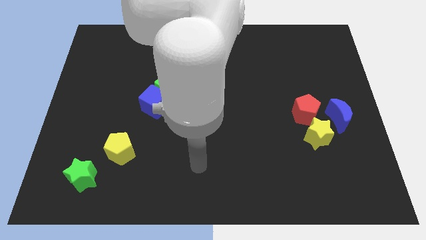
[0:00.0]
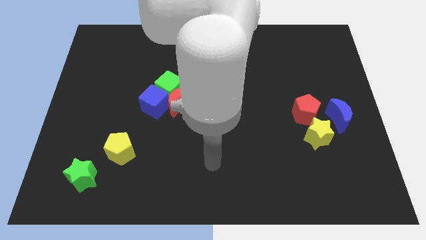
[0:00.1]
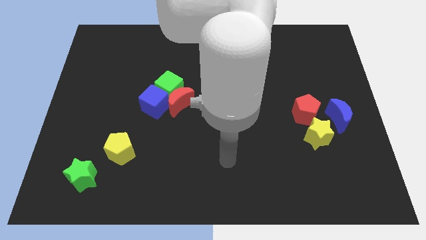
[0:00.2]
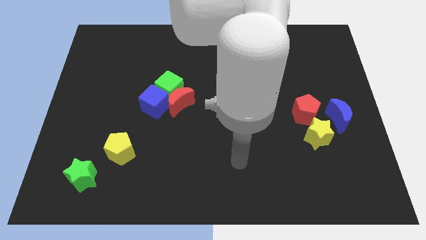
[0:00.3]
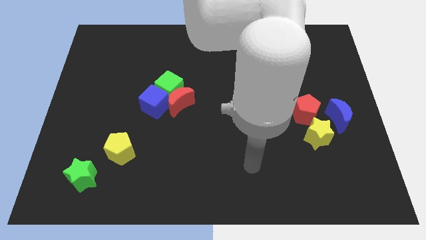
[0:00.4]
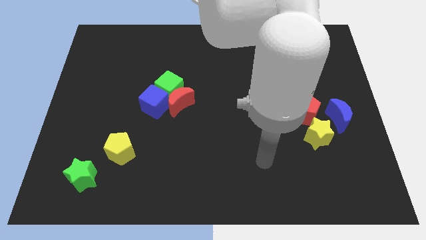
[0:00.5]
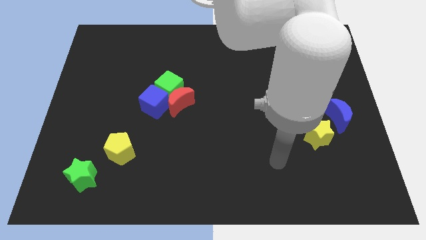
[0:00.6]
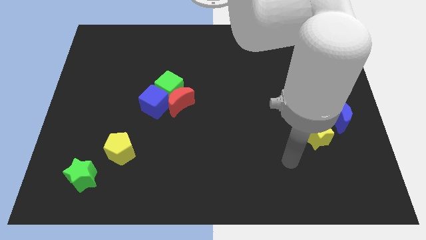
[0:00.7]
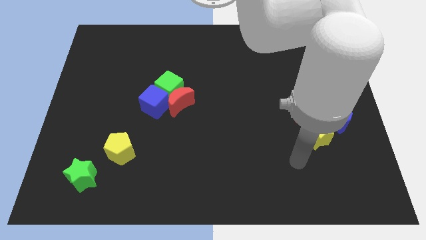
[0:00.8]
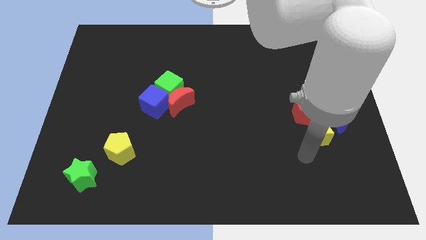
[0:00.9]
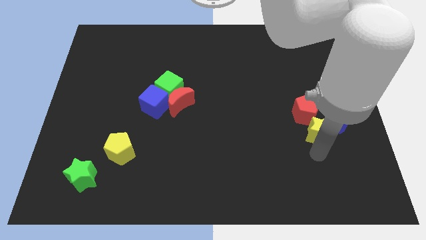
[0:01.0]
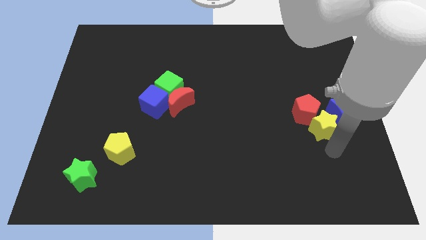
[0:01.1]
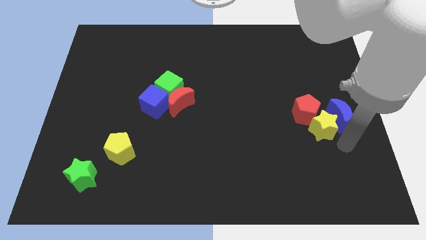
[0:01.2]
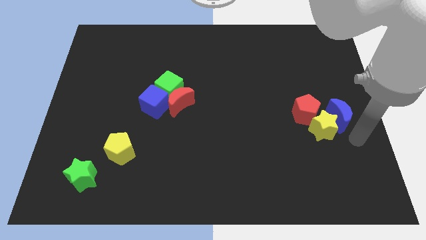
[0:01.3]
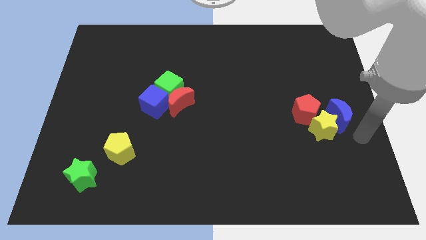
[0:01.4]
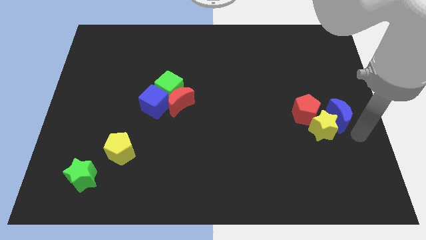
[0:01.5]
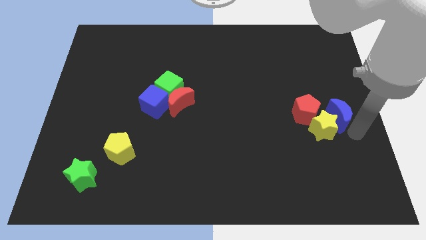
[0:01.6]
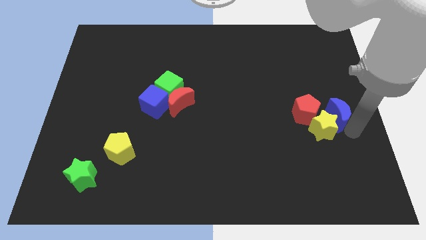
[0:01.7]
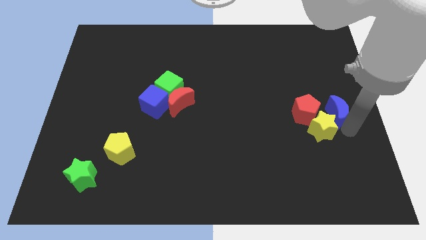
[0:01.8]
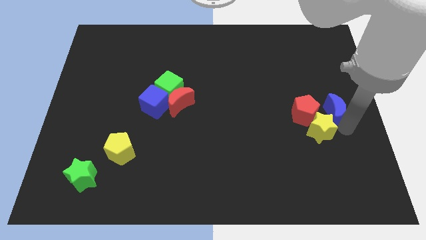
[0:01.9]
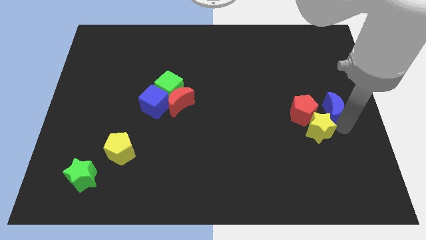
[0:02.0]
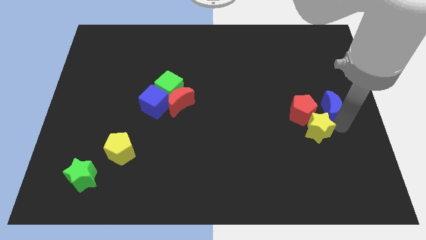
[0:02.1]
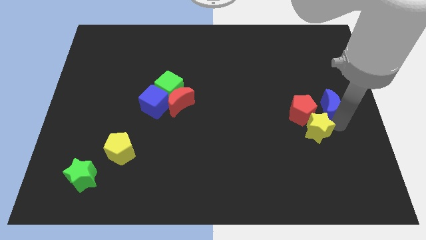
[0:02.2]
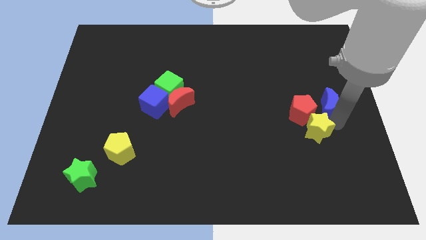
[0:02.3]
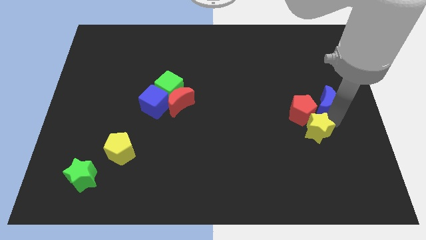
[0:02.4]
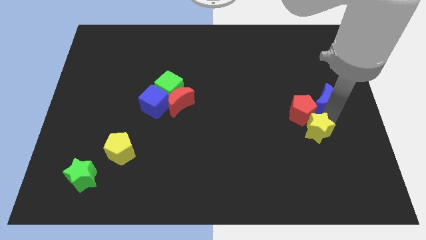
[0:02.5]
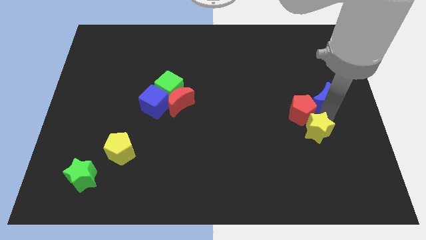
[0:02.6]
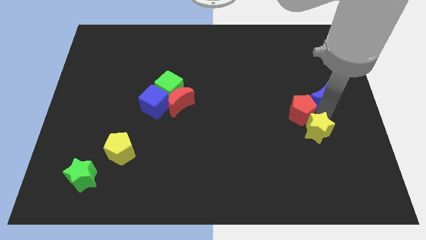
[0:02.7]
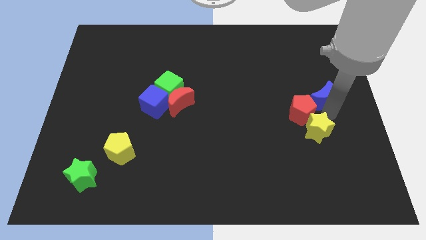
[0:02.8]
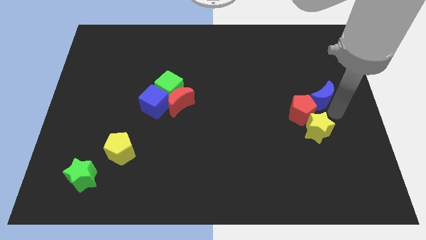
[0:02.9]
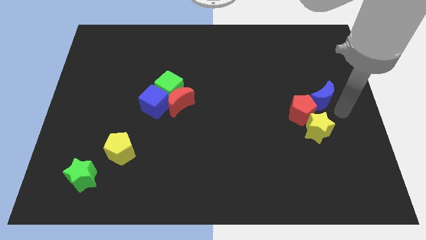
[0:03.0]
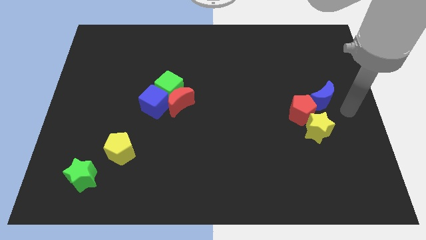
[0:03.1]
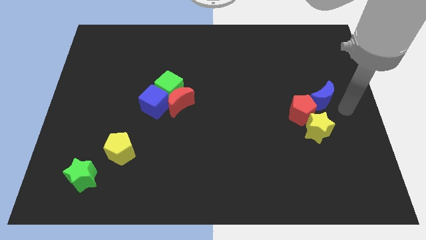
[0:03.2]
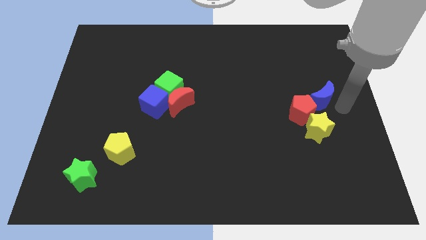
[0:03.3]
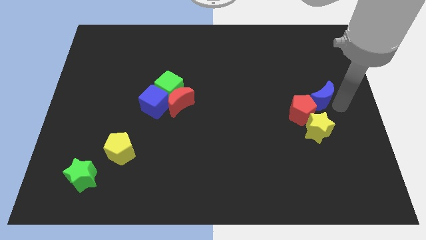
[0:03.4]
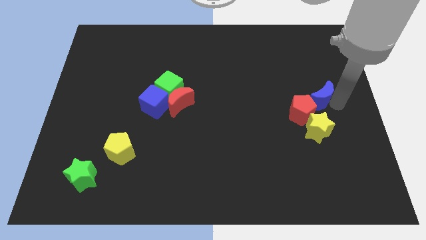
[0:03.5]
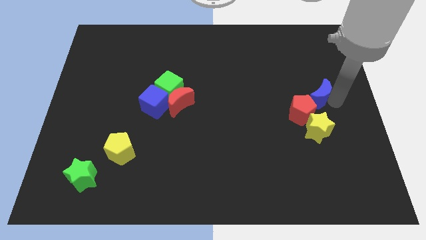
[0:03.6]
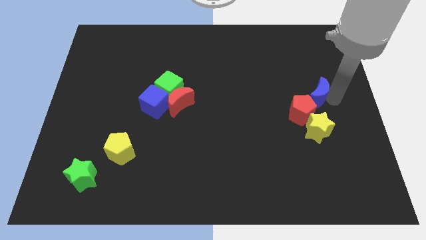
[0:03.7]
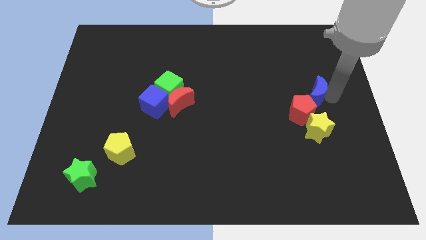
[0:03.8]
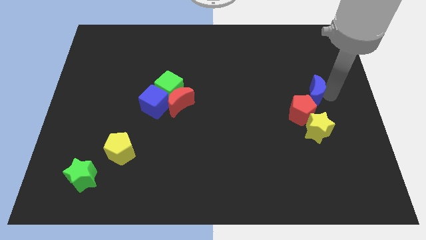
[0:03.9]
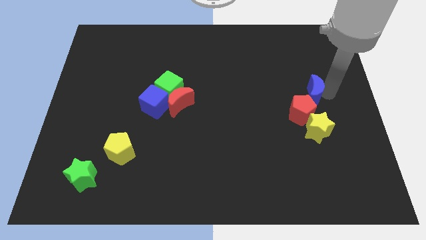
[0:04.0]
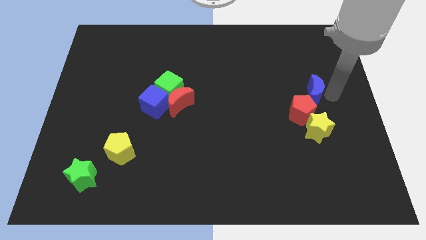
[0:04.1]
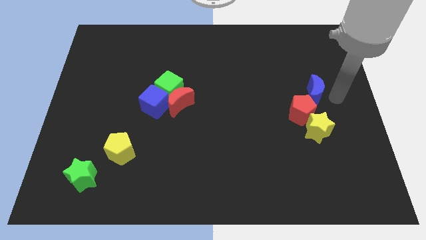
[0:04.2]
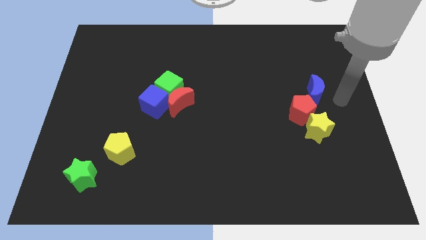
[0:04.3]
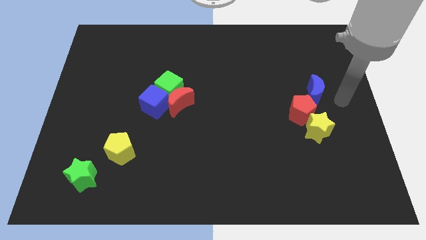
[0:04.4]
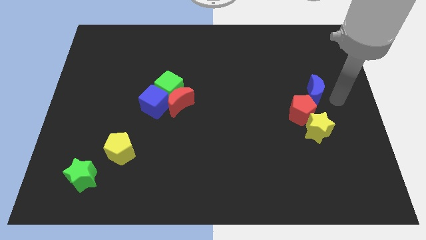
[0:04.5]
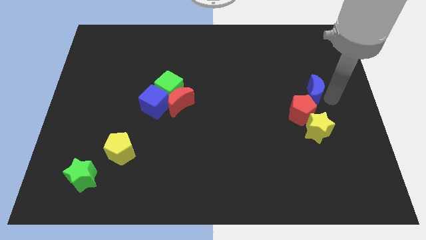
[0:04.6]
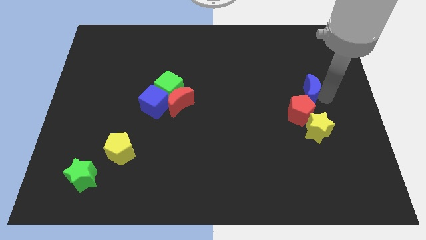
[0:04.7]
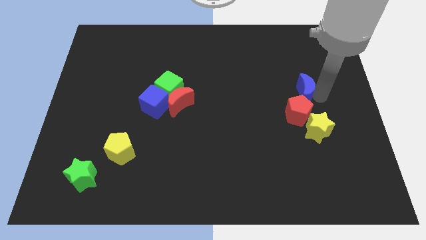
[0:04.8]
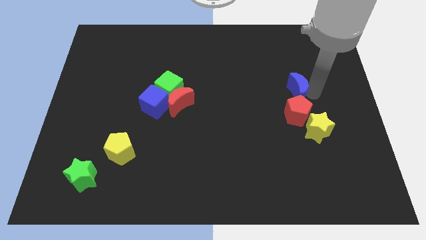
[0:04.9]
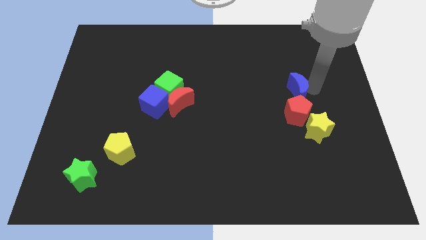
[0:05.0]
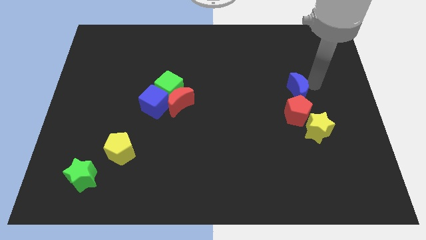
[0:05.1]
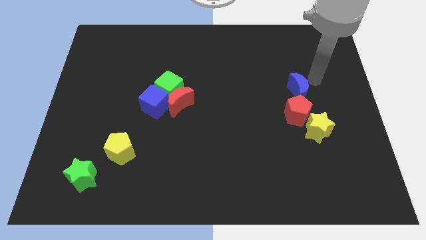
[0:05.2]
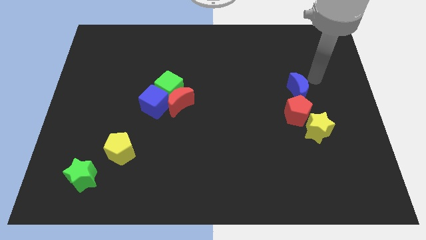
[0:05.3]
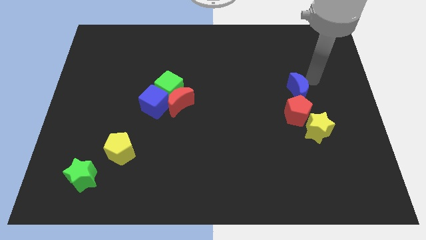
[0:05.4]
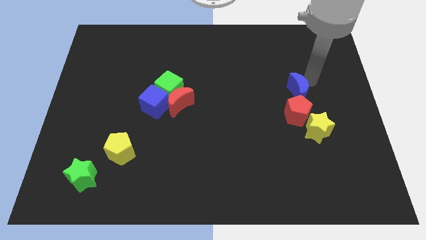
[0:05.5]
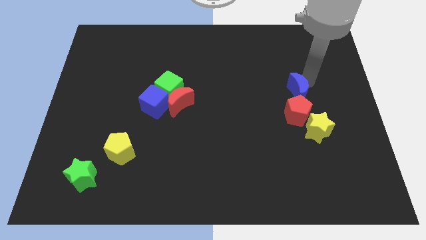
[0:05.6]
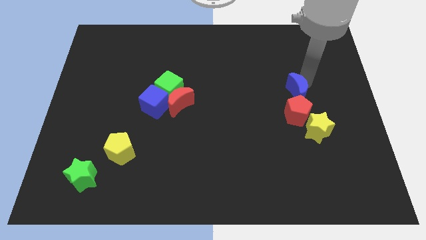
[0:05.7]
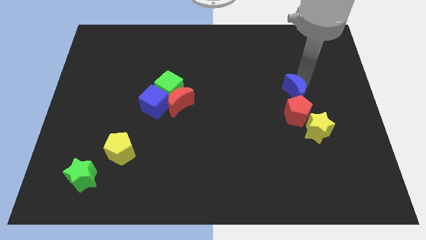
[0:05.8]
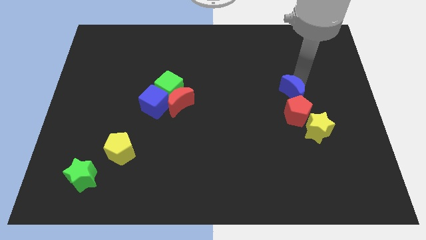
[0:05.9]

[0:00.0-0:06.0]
slide the blue moon a bit to the left

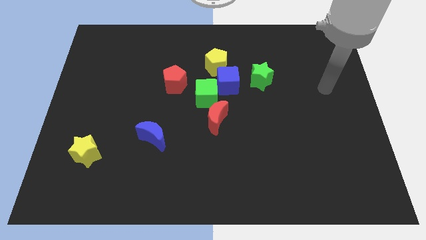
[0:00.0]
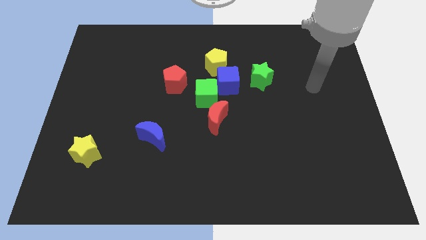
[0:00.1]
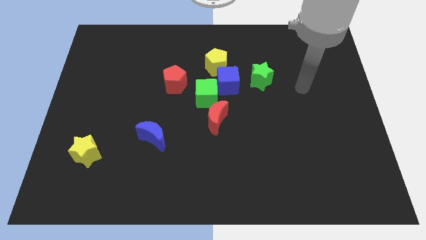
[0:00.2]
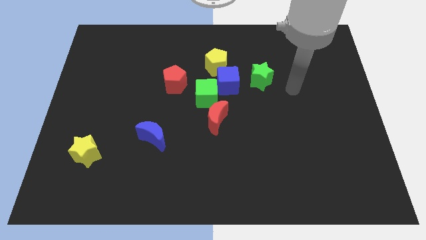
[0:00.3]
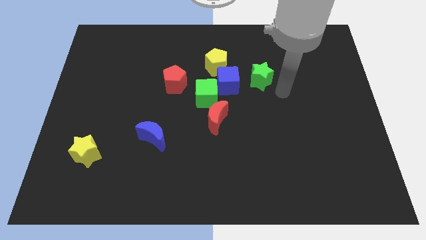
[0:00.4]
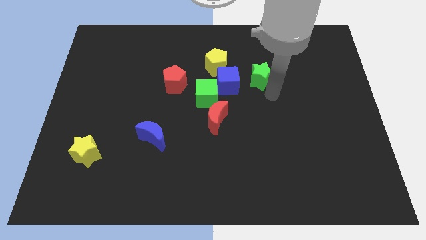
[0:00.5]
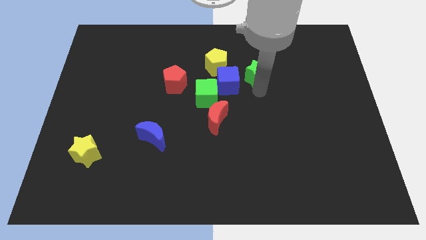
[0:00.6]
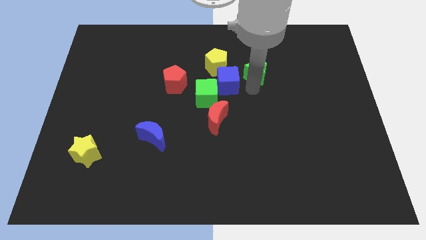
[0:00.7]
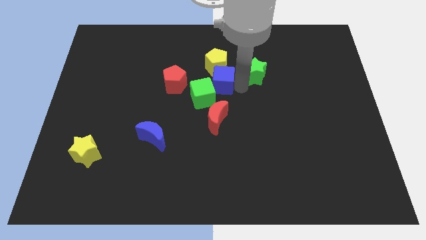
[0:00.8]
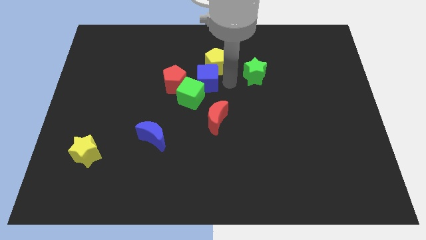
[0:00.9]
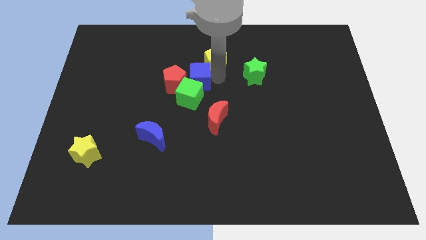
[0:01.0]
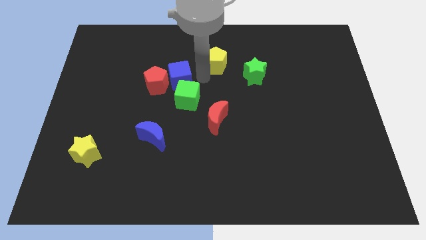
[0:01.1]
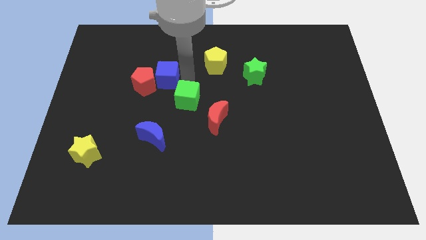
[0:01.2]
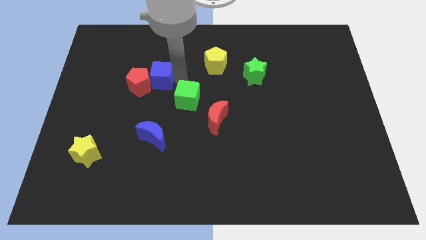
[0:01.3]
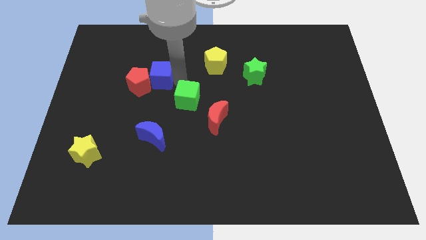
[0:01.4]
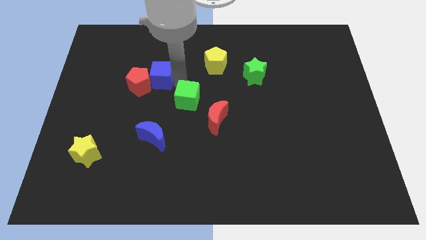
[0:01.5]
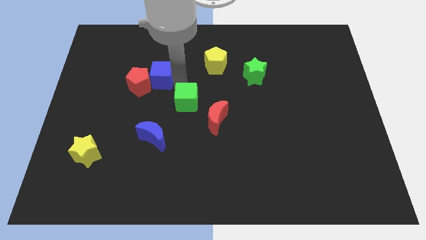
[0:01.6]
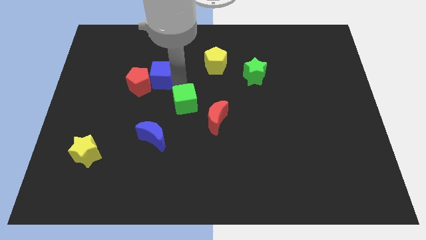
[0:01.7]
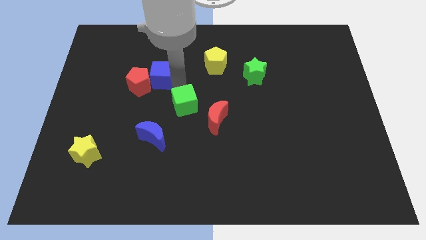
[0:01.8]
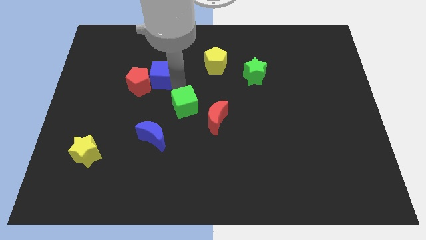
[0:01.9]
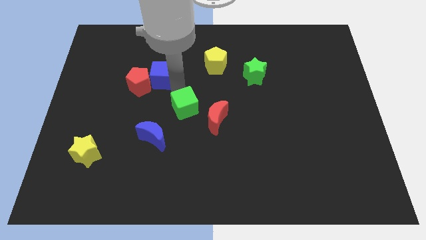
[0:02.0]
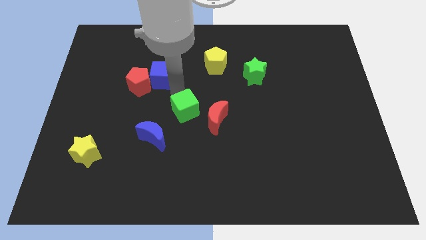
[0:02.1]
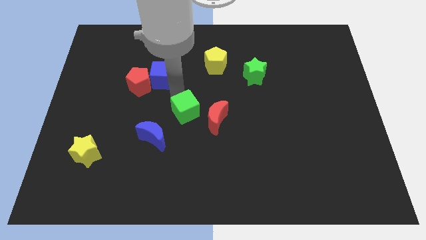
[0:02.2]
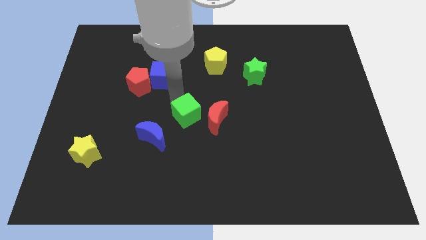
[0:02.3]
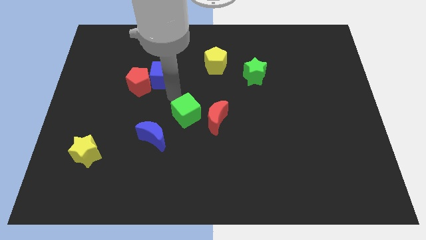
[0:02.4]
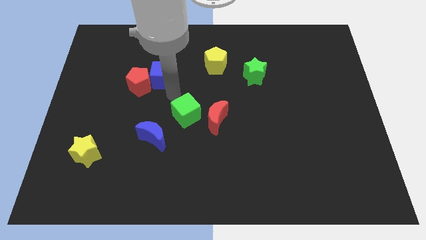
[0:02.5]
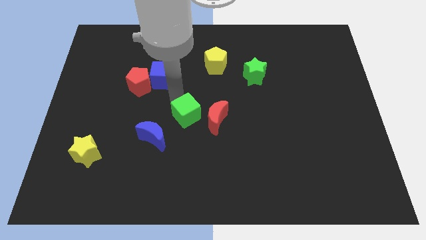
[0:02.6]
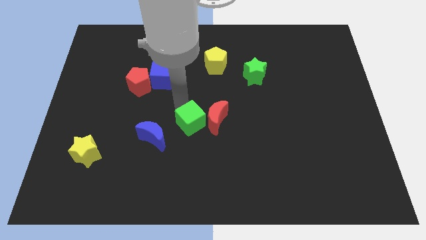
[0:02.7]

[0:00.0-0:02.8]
slightly push the green cube downwards
